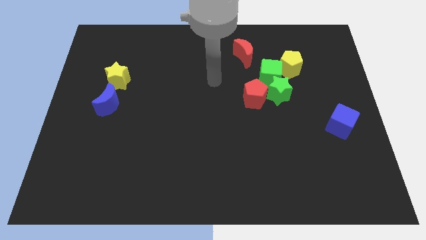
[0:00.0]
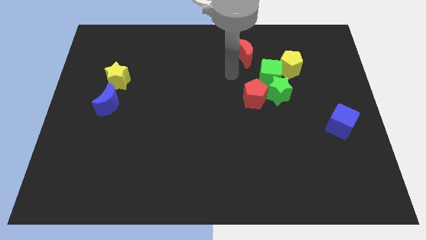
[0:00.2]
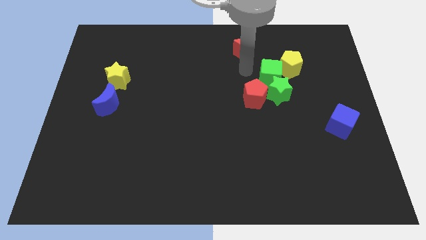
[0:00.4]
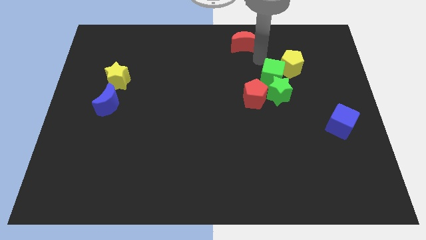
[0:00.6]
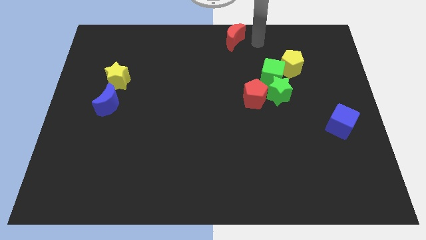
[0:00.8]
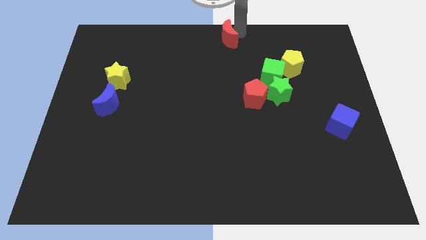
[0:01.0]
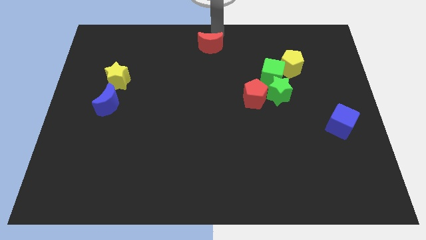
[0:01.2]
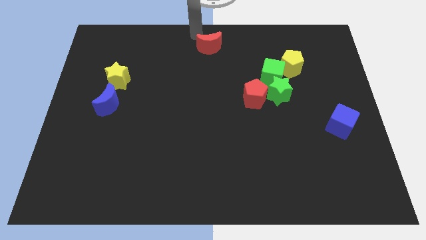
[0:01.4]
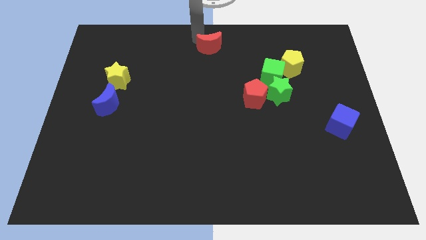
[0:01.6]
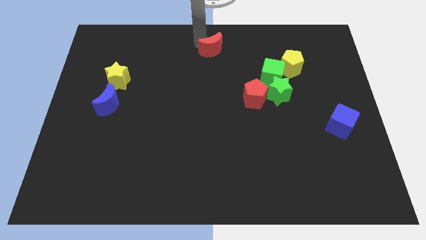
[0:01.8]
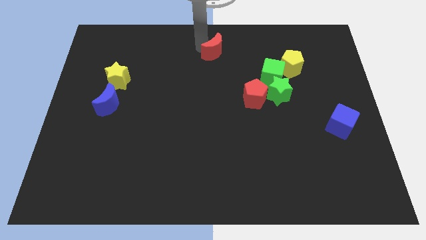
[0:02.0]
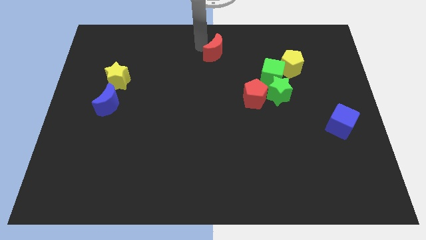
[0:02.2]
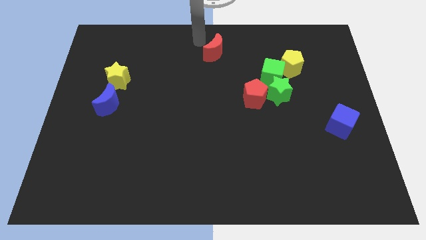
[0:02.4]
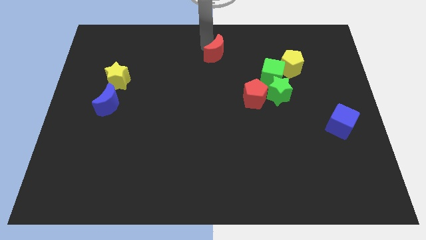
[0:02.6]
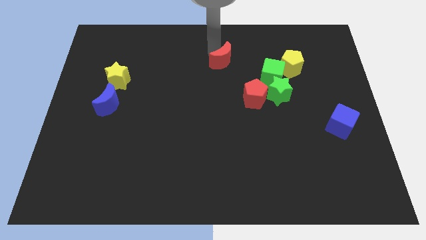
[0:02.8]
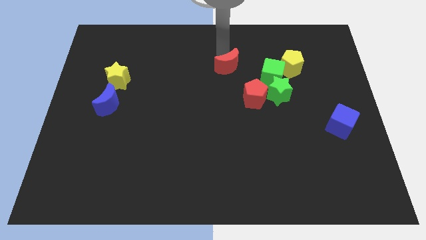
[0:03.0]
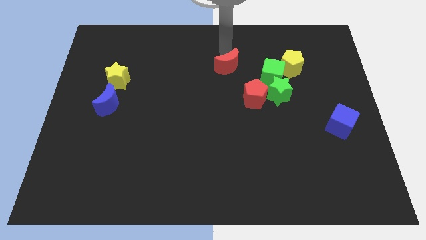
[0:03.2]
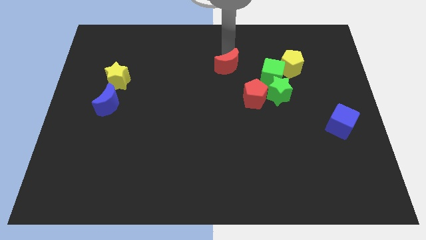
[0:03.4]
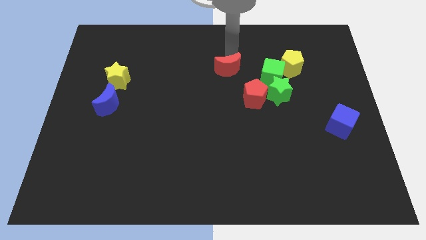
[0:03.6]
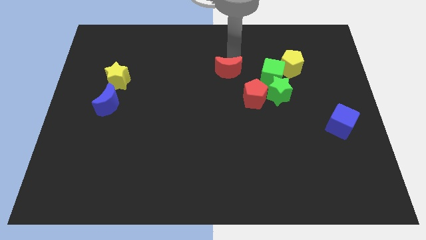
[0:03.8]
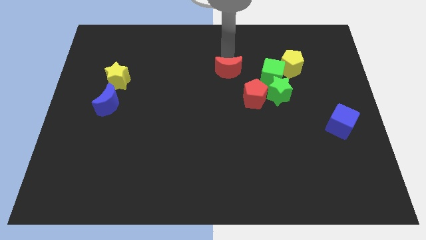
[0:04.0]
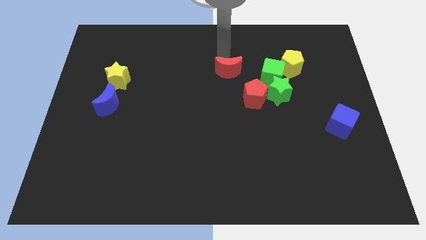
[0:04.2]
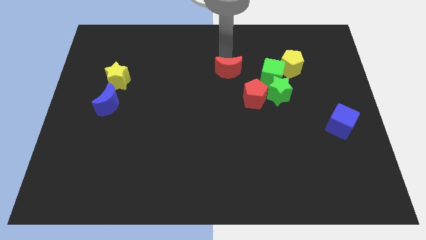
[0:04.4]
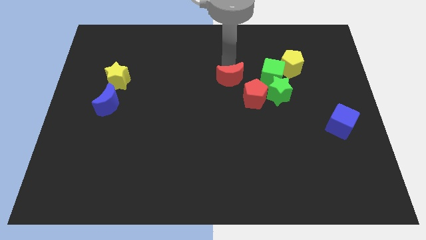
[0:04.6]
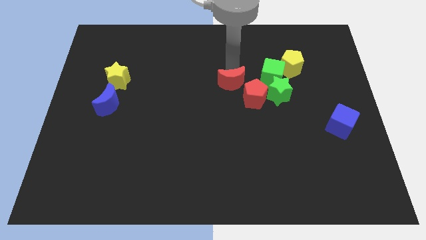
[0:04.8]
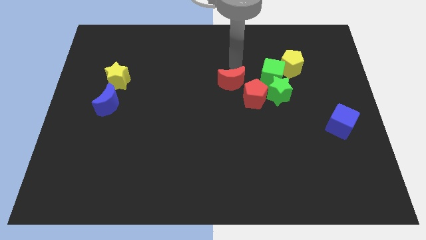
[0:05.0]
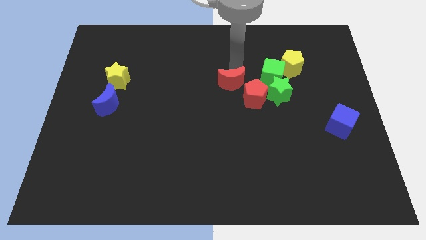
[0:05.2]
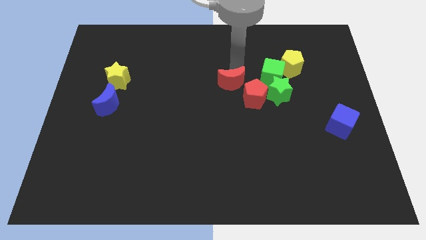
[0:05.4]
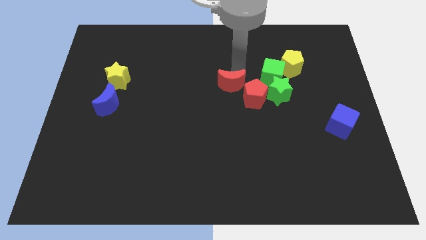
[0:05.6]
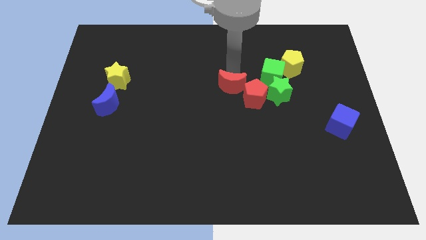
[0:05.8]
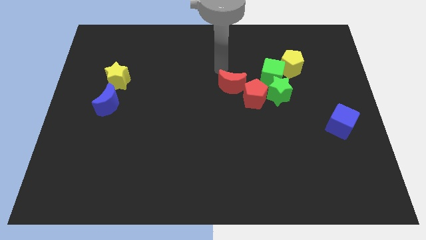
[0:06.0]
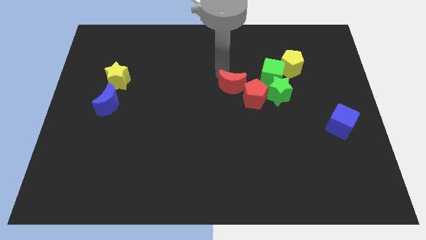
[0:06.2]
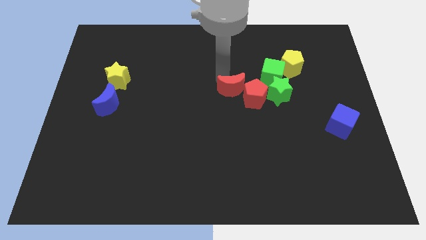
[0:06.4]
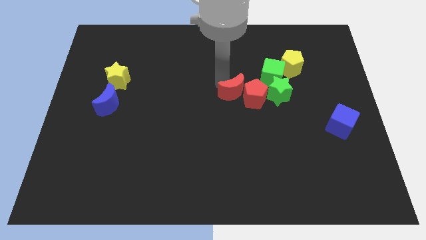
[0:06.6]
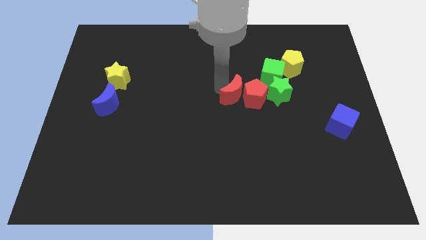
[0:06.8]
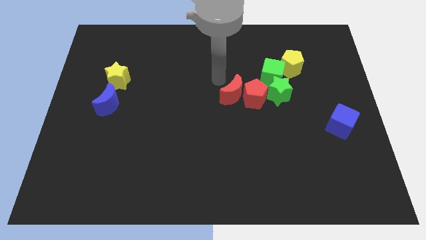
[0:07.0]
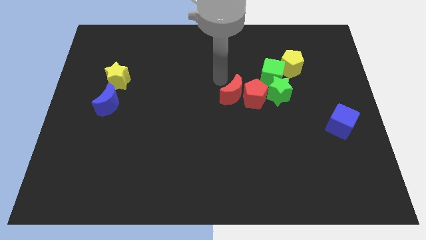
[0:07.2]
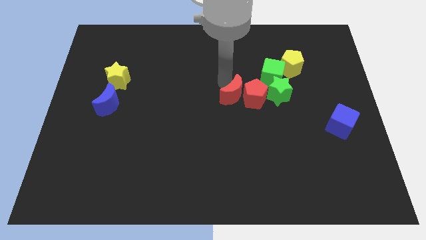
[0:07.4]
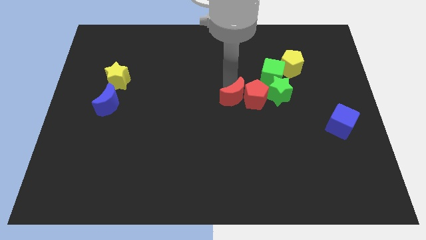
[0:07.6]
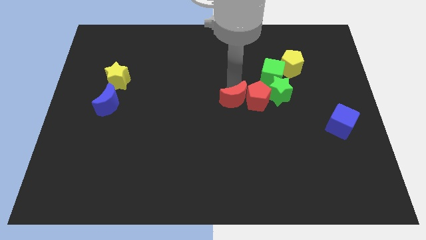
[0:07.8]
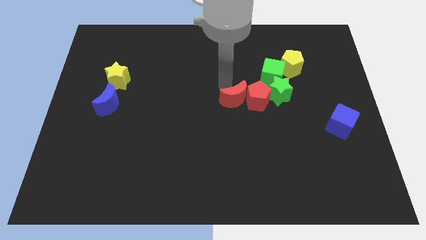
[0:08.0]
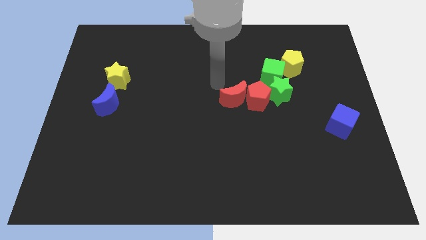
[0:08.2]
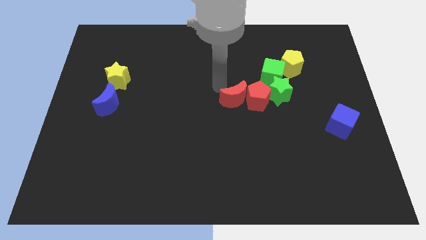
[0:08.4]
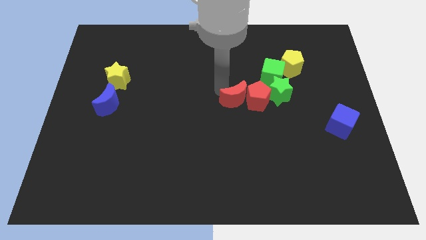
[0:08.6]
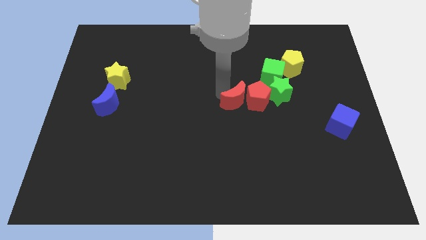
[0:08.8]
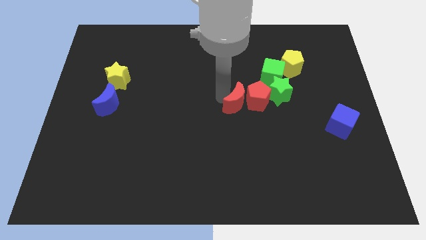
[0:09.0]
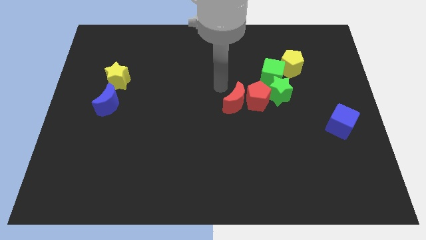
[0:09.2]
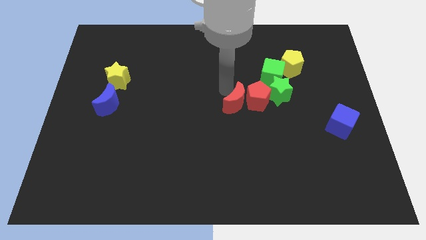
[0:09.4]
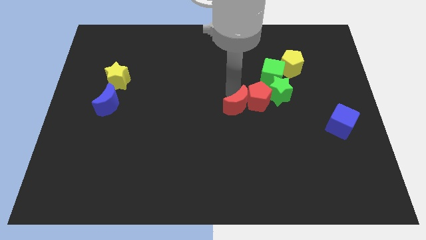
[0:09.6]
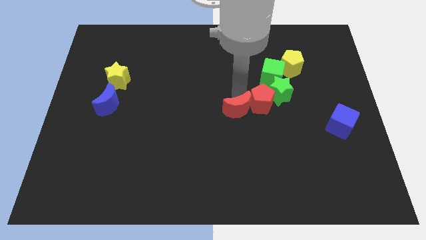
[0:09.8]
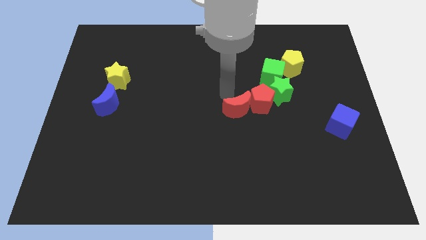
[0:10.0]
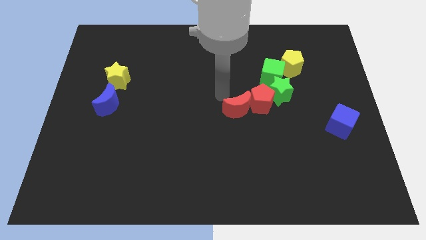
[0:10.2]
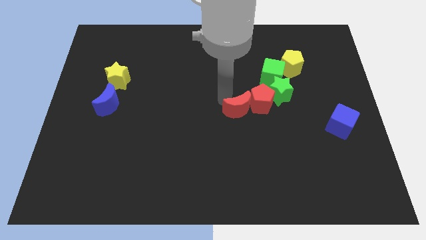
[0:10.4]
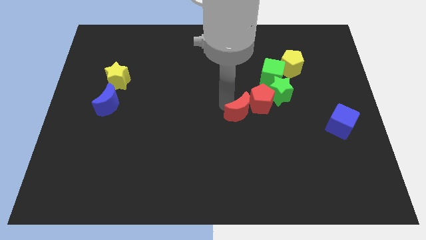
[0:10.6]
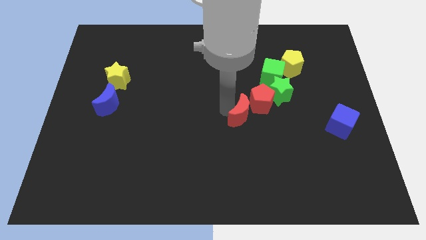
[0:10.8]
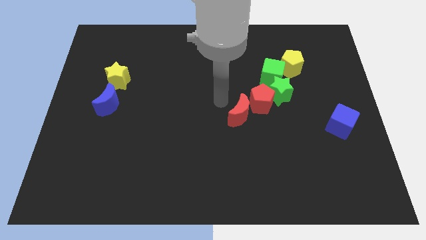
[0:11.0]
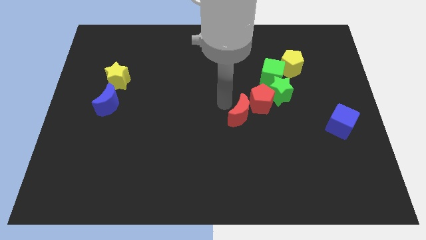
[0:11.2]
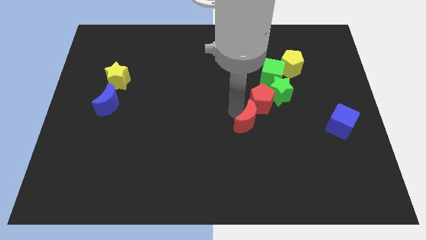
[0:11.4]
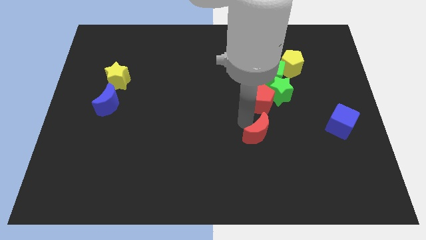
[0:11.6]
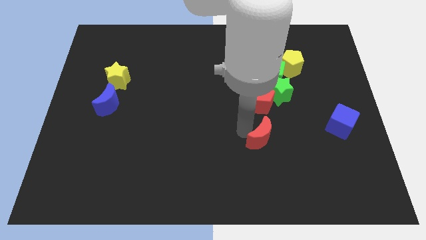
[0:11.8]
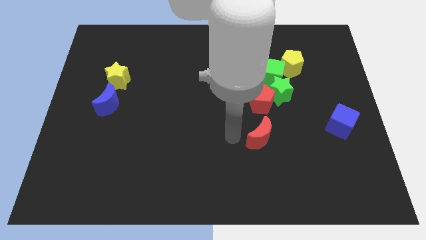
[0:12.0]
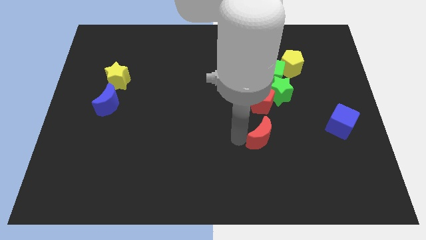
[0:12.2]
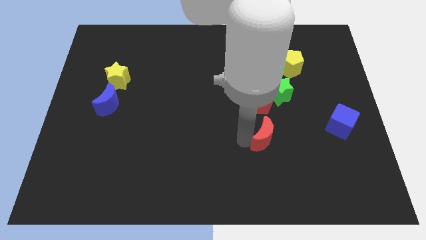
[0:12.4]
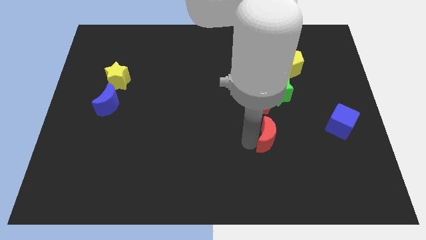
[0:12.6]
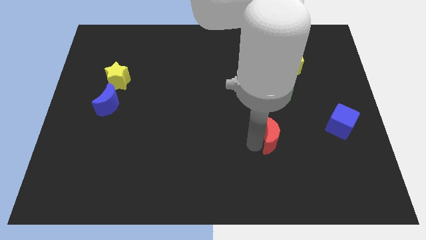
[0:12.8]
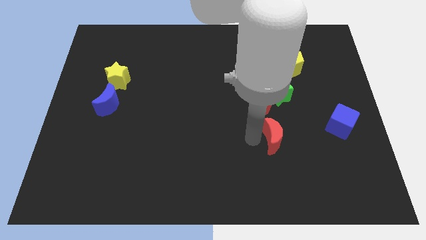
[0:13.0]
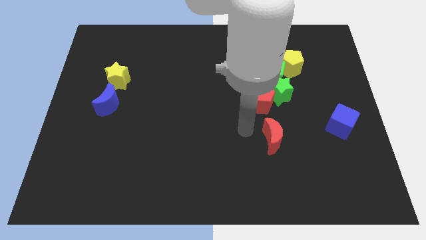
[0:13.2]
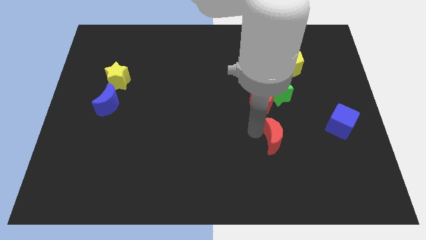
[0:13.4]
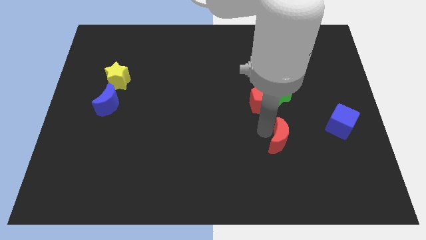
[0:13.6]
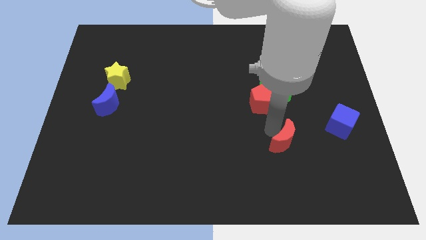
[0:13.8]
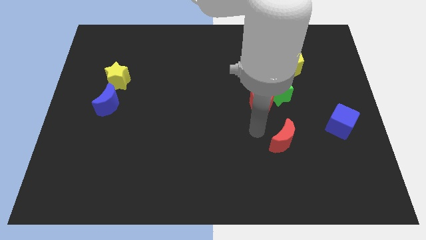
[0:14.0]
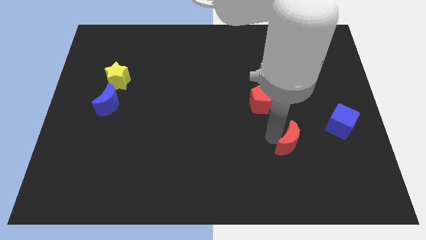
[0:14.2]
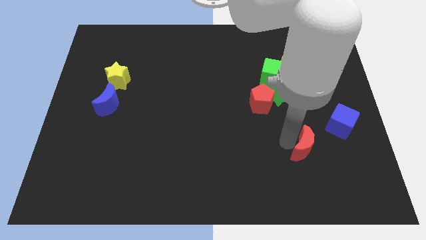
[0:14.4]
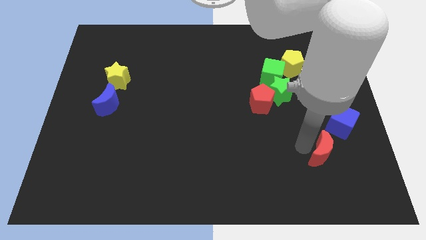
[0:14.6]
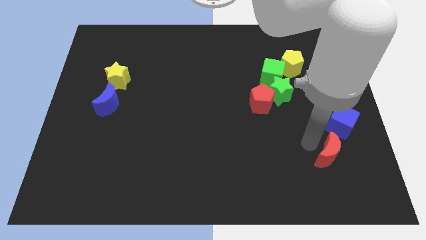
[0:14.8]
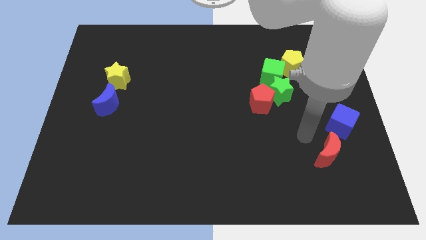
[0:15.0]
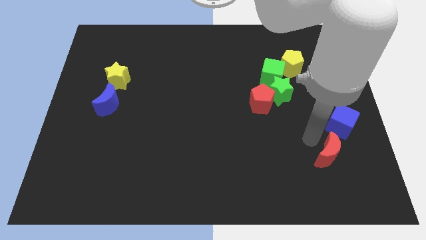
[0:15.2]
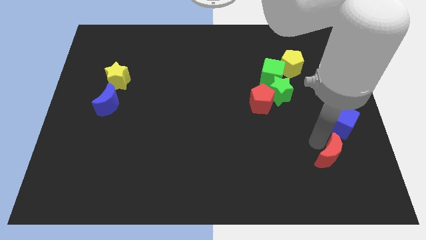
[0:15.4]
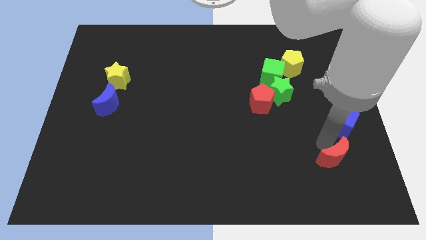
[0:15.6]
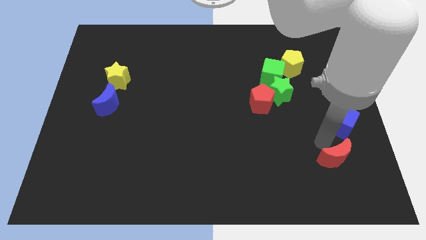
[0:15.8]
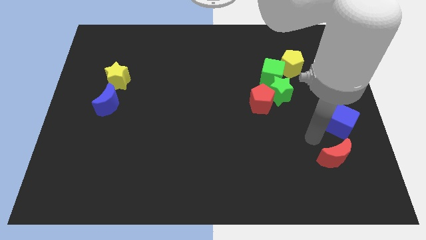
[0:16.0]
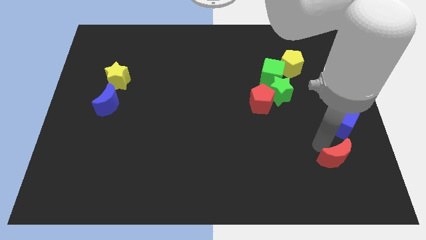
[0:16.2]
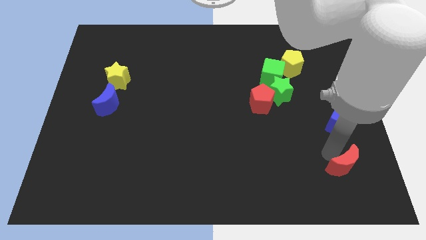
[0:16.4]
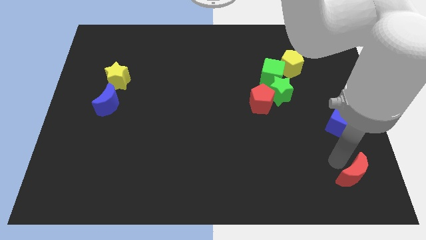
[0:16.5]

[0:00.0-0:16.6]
move the red moon to the bottom right corner
